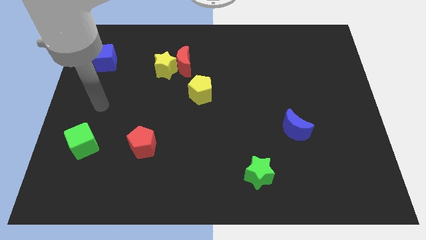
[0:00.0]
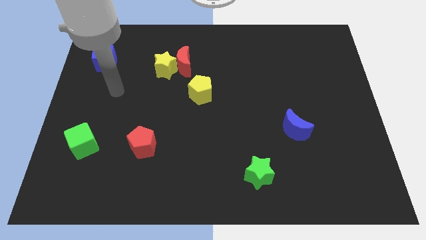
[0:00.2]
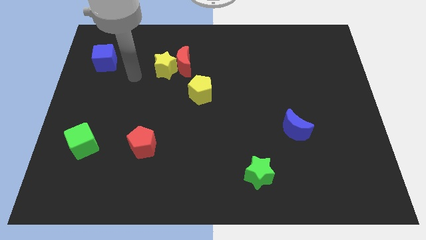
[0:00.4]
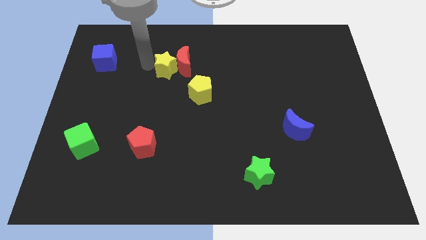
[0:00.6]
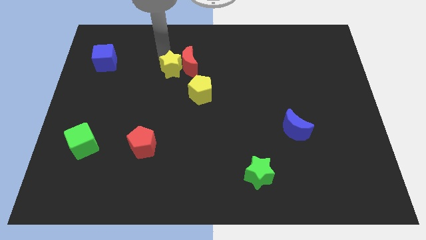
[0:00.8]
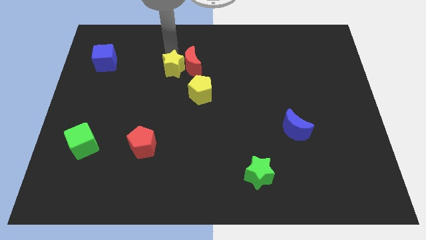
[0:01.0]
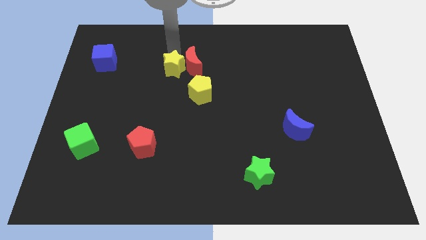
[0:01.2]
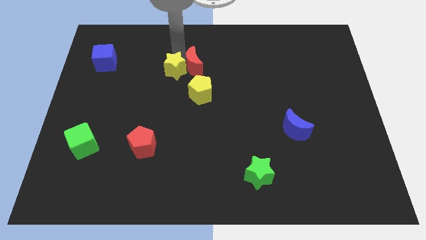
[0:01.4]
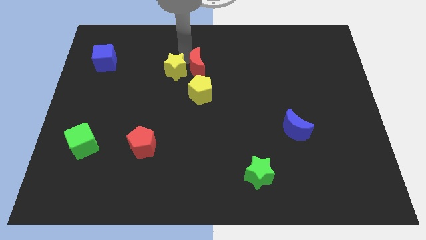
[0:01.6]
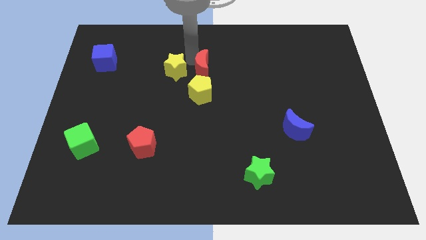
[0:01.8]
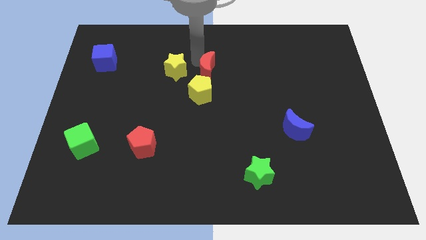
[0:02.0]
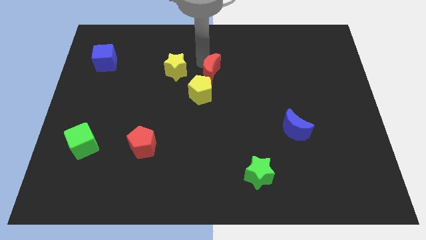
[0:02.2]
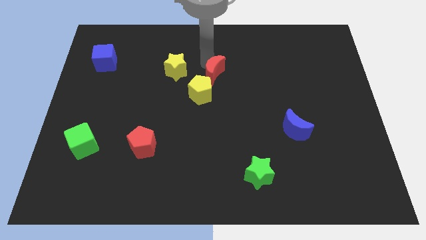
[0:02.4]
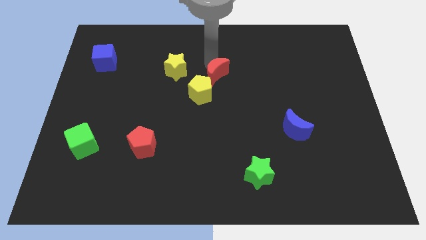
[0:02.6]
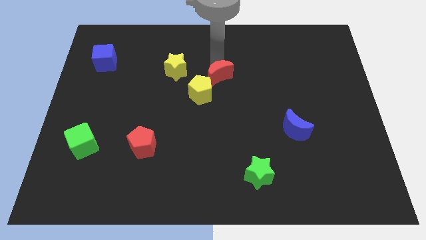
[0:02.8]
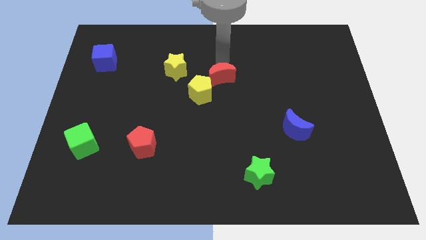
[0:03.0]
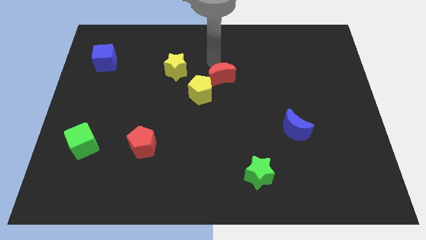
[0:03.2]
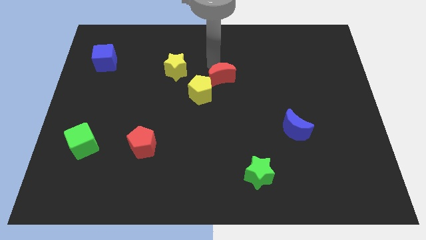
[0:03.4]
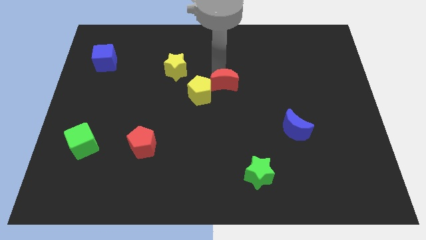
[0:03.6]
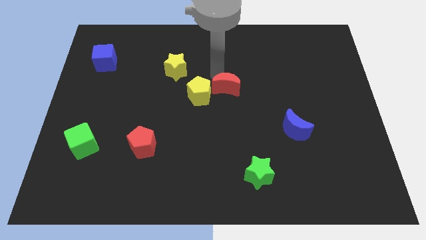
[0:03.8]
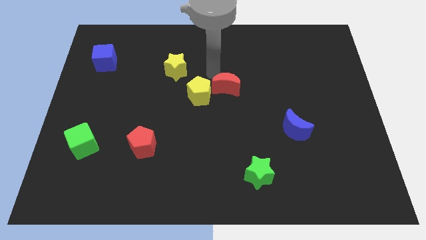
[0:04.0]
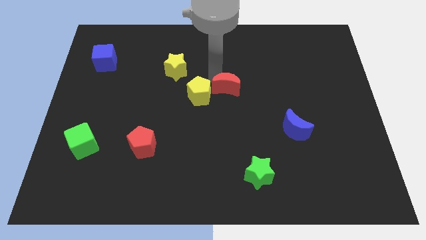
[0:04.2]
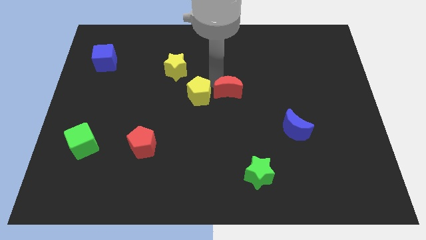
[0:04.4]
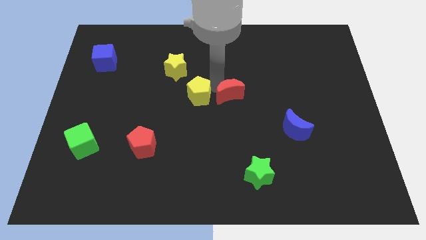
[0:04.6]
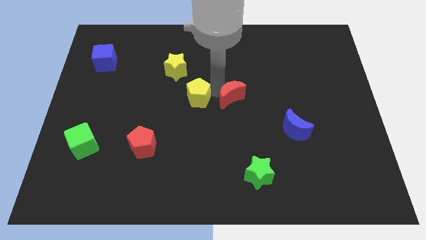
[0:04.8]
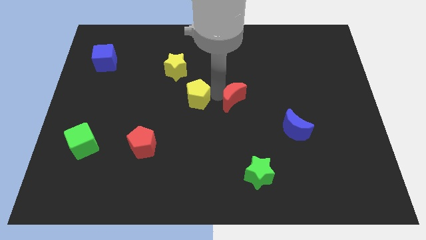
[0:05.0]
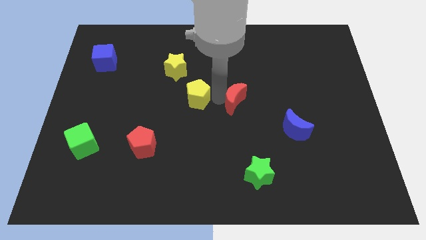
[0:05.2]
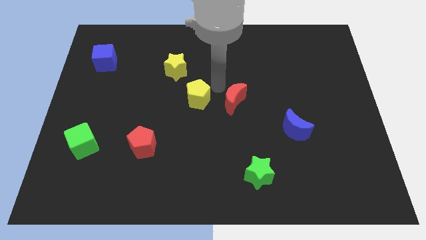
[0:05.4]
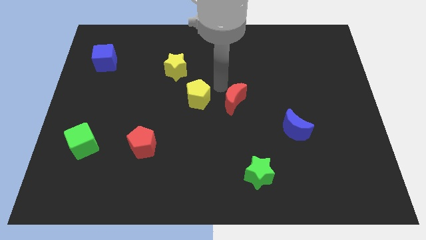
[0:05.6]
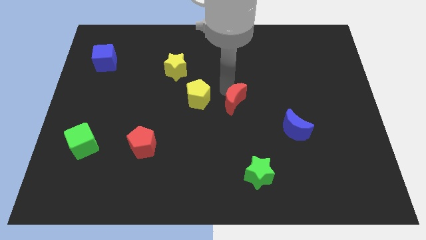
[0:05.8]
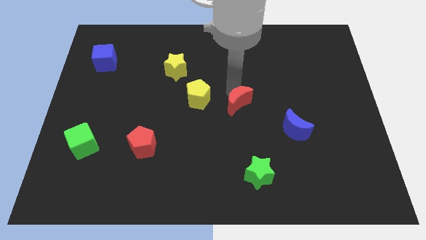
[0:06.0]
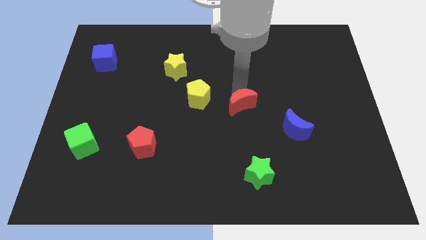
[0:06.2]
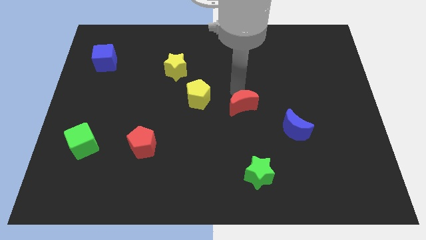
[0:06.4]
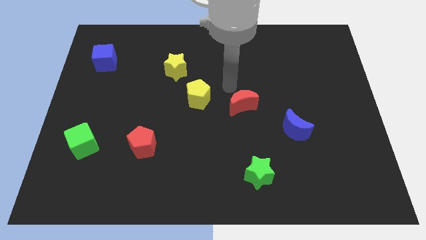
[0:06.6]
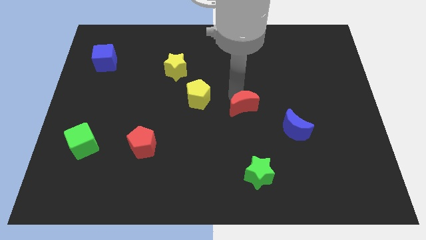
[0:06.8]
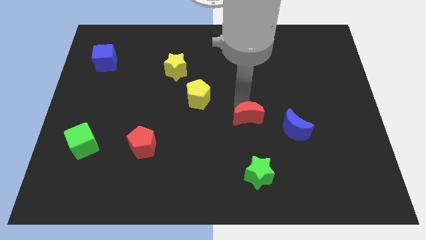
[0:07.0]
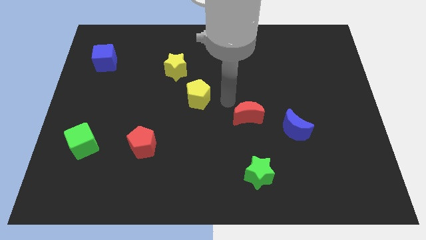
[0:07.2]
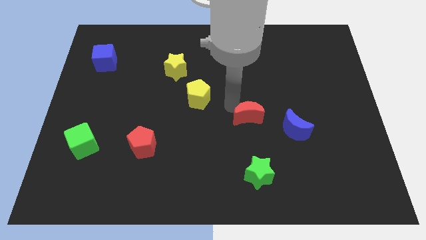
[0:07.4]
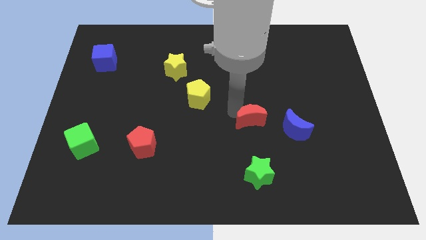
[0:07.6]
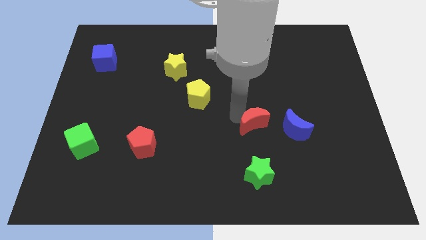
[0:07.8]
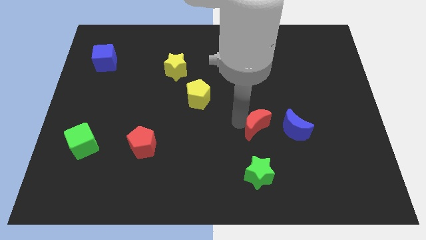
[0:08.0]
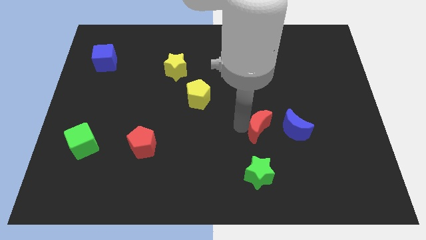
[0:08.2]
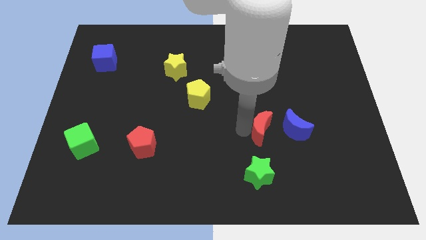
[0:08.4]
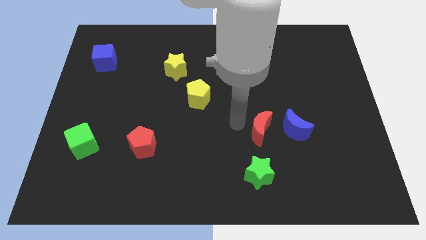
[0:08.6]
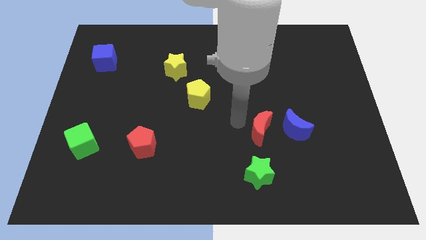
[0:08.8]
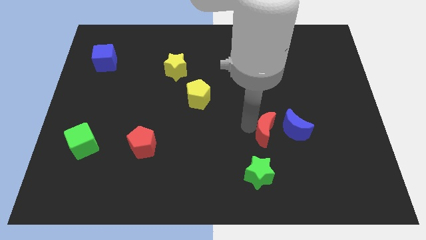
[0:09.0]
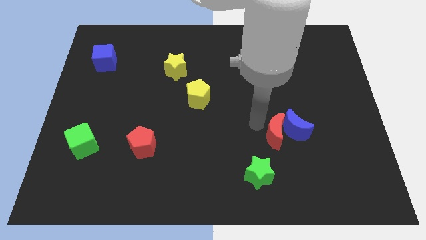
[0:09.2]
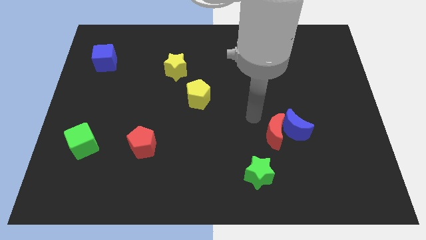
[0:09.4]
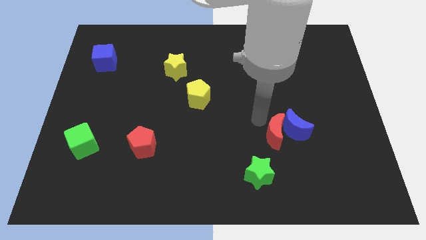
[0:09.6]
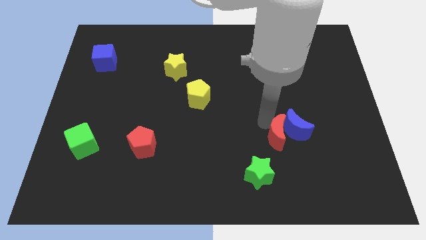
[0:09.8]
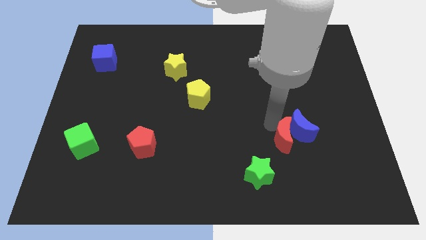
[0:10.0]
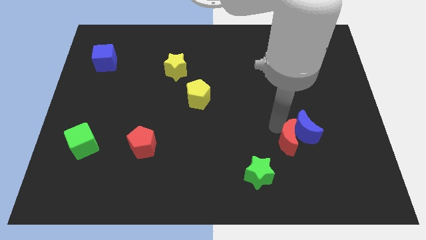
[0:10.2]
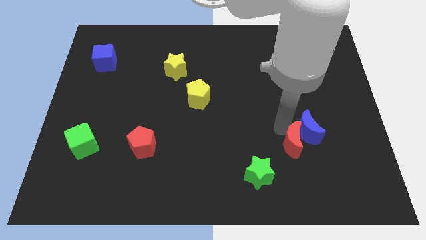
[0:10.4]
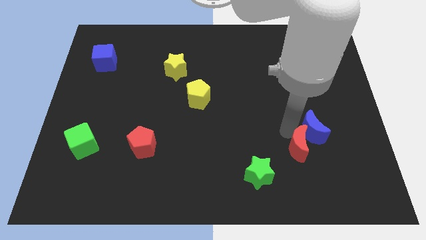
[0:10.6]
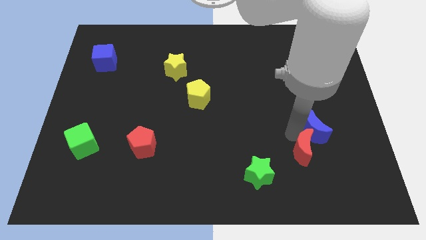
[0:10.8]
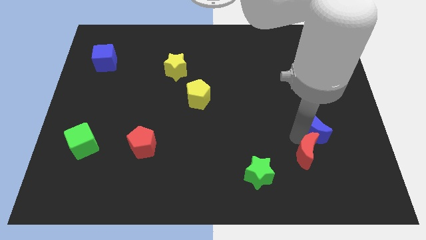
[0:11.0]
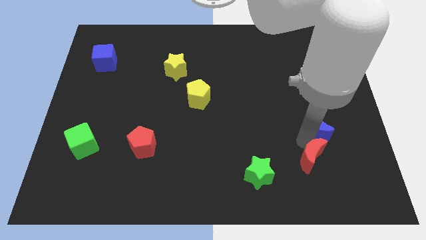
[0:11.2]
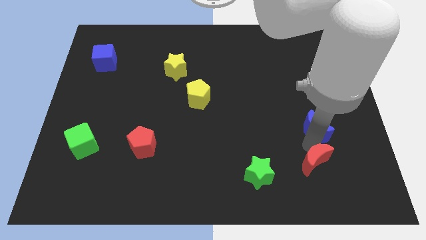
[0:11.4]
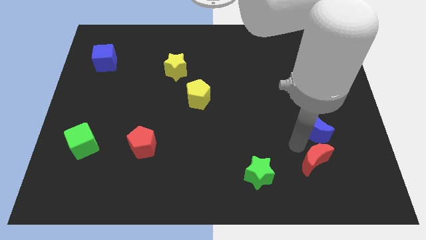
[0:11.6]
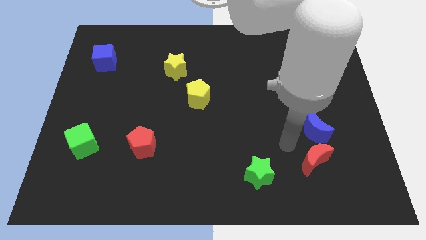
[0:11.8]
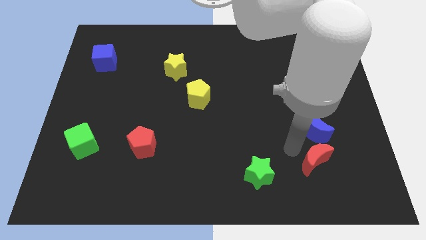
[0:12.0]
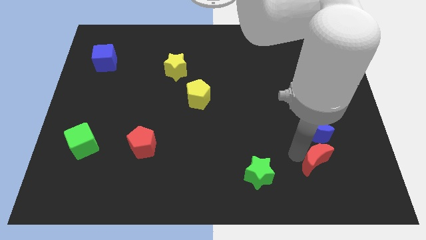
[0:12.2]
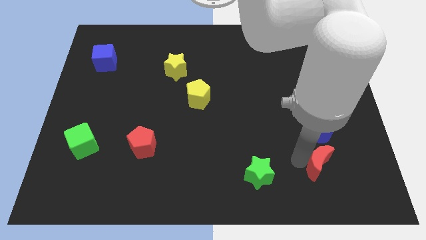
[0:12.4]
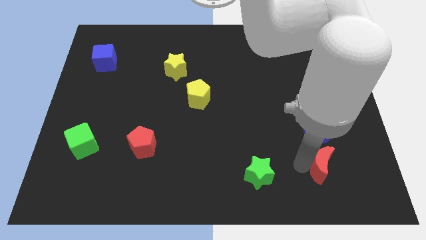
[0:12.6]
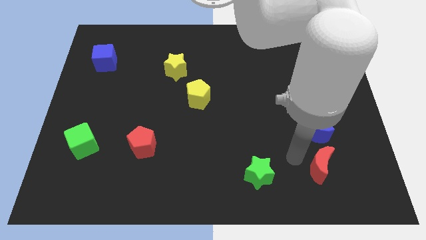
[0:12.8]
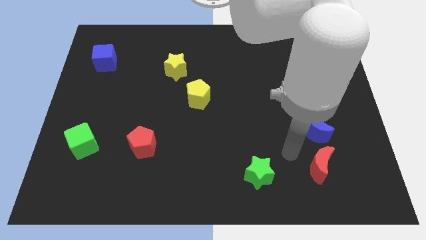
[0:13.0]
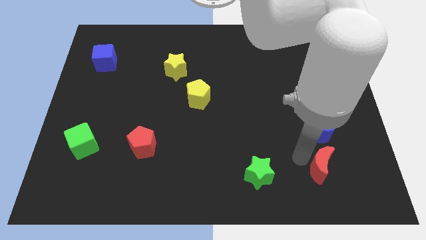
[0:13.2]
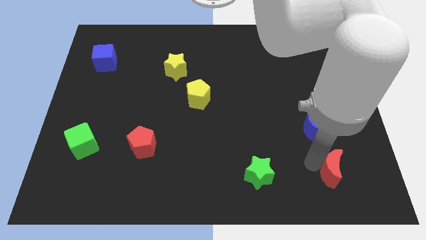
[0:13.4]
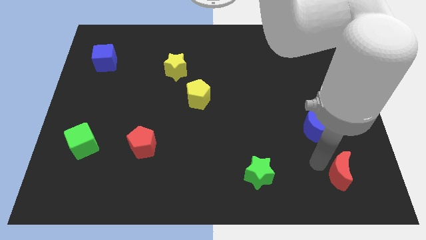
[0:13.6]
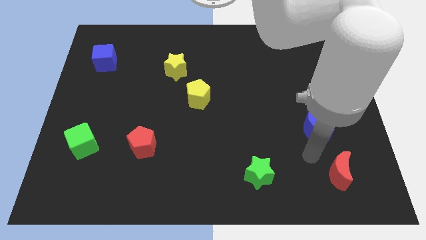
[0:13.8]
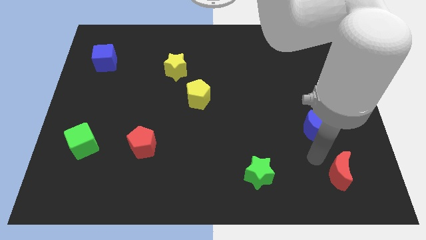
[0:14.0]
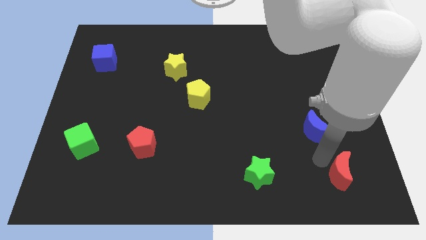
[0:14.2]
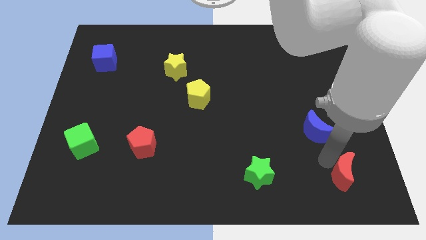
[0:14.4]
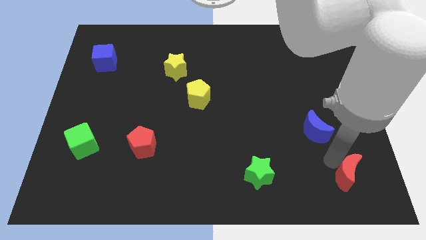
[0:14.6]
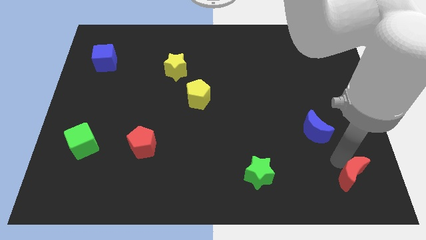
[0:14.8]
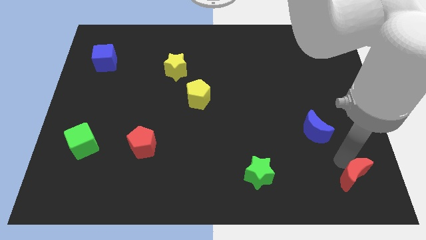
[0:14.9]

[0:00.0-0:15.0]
push the red moon to the bottom right corner
